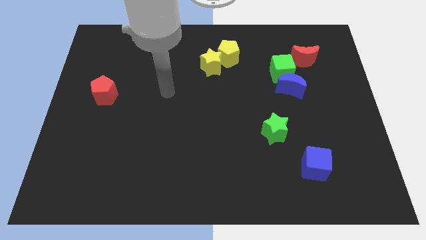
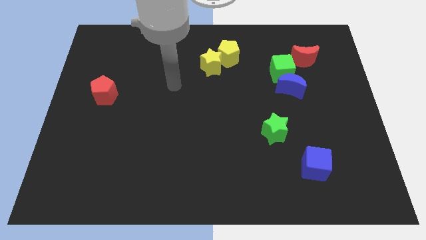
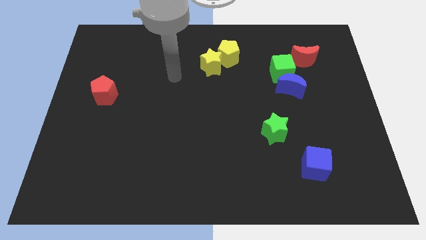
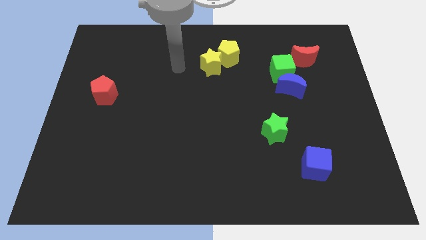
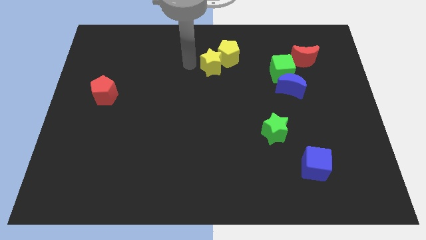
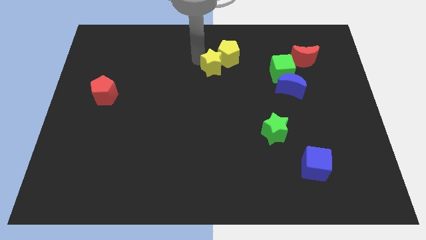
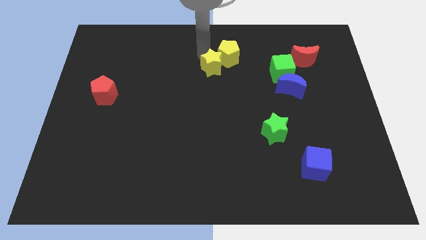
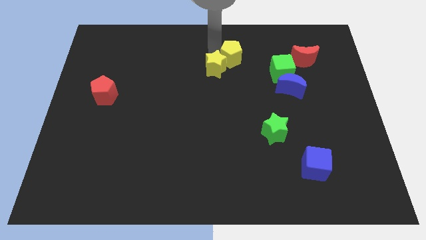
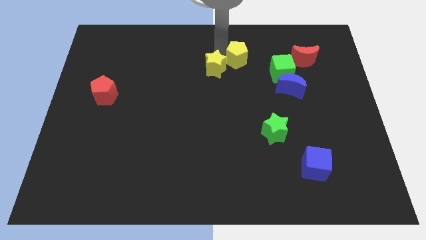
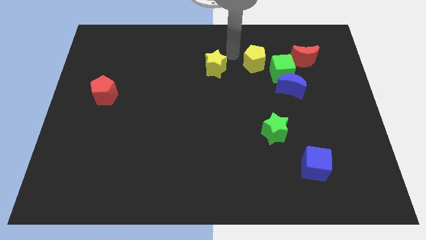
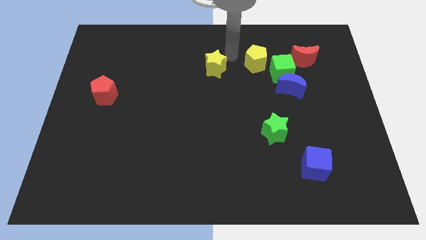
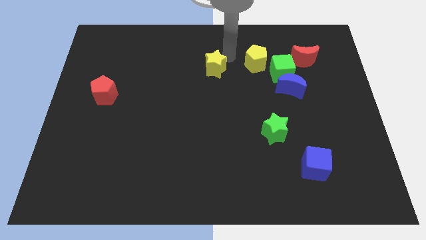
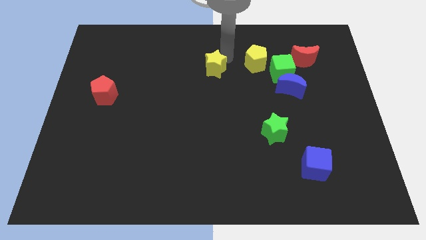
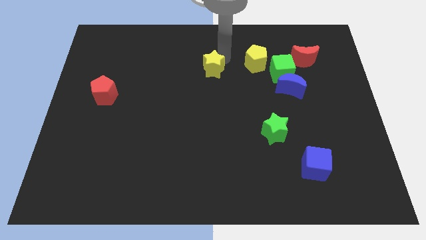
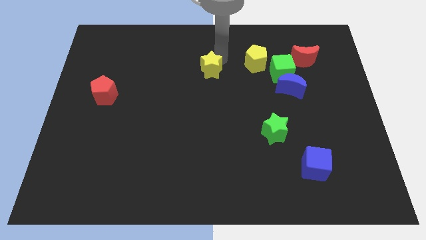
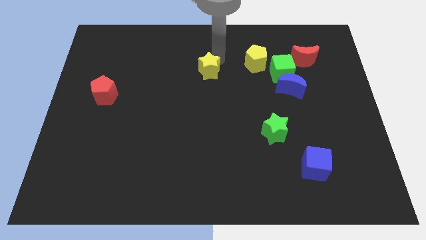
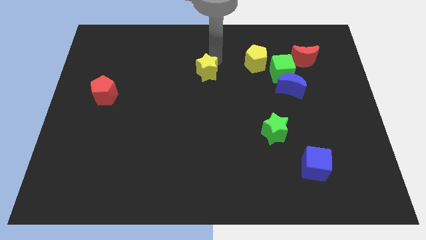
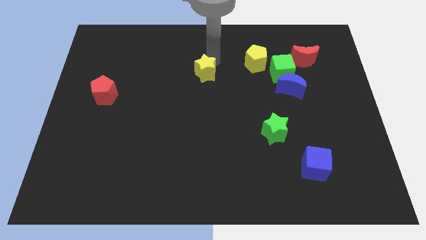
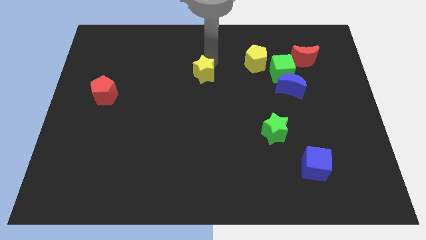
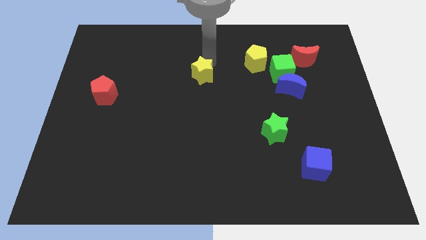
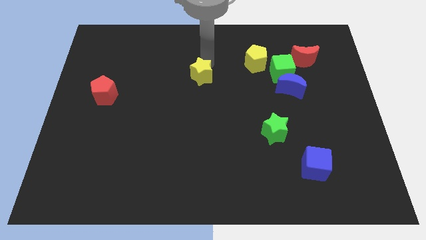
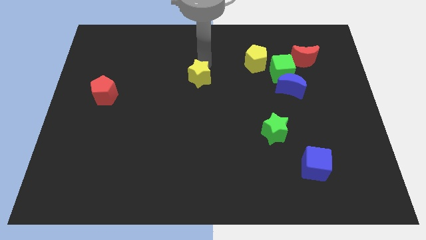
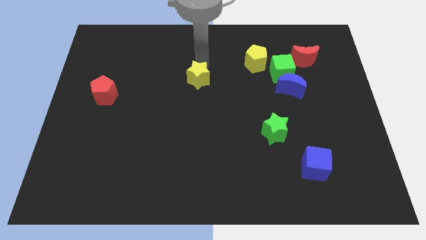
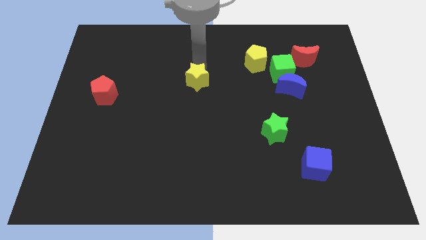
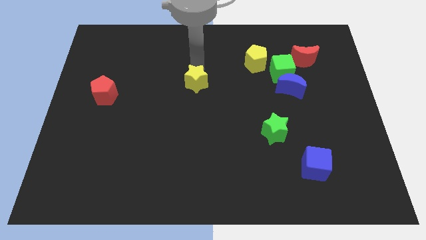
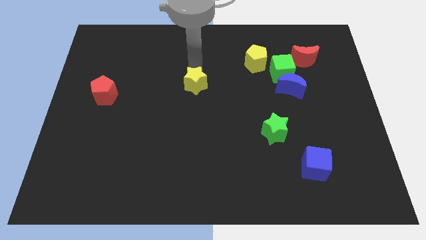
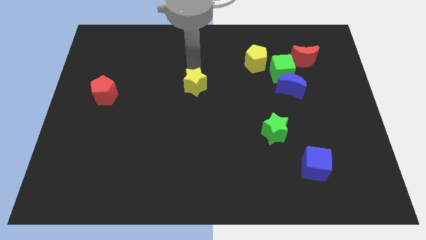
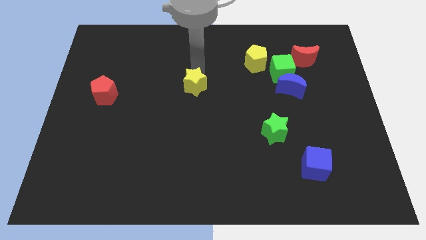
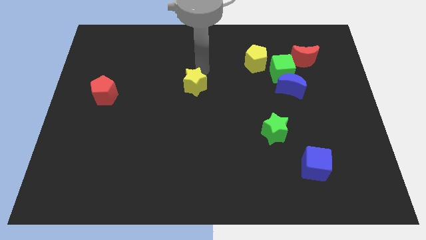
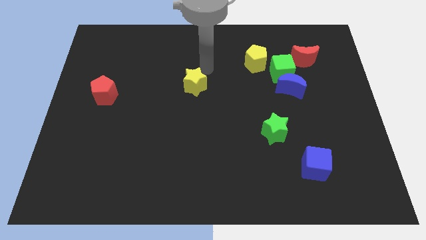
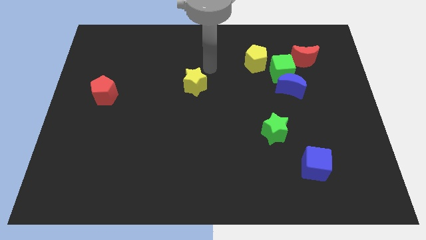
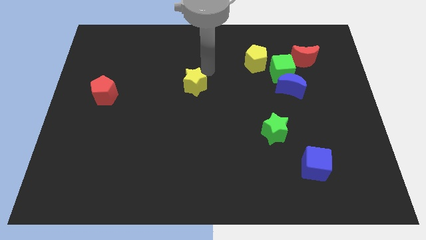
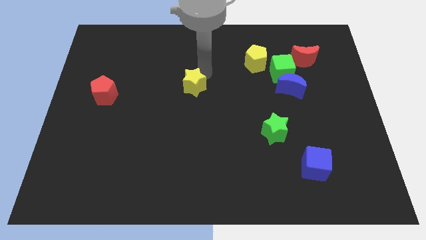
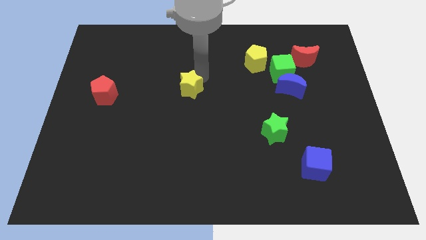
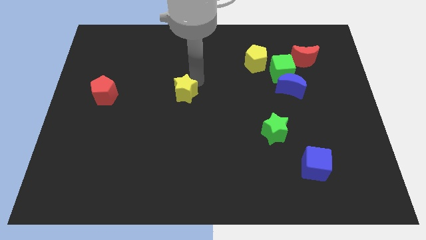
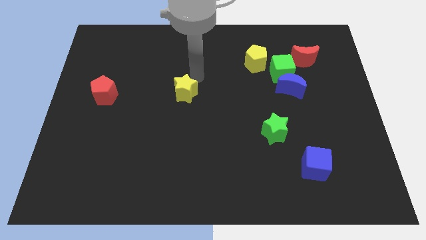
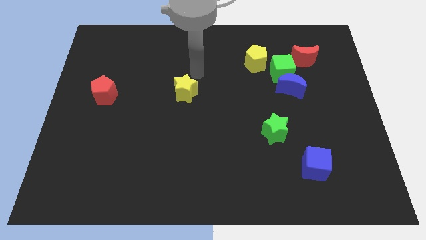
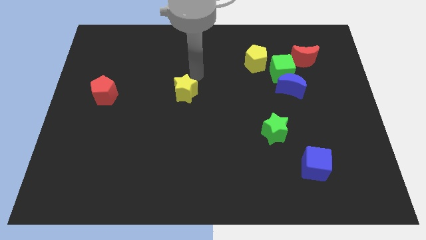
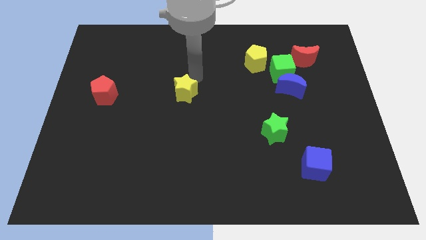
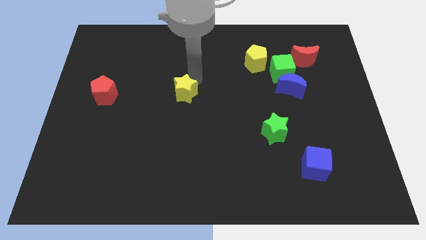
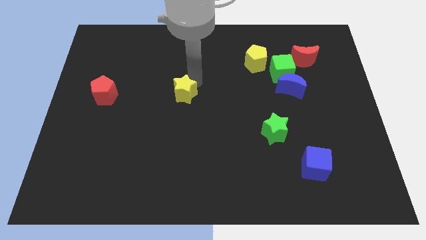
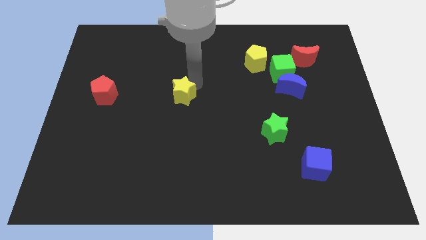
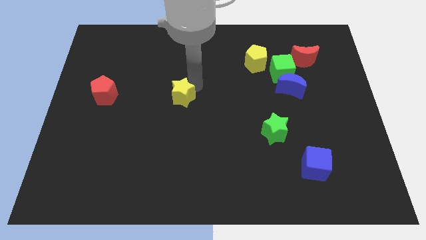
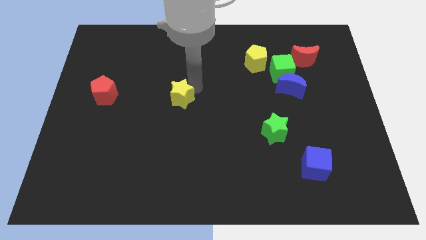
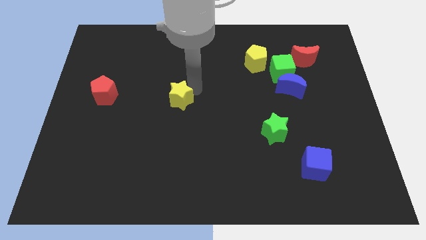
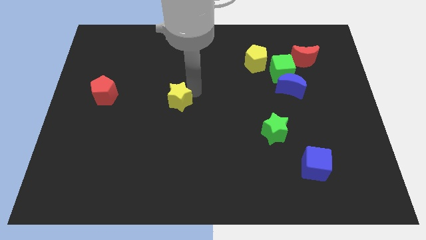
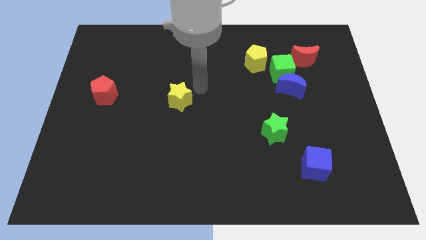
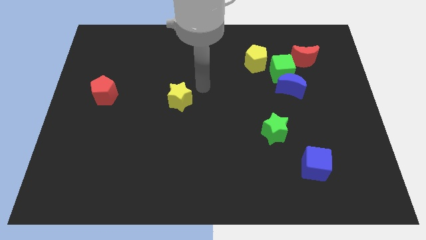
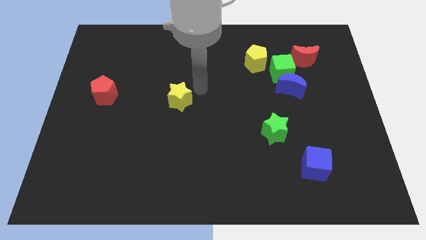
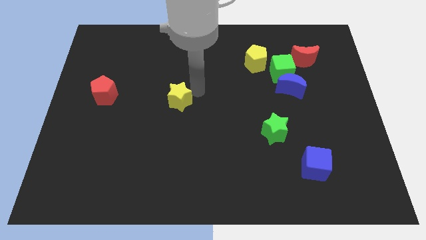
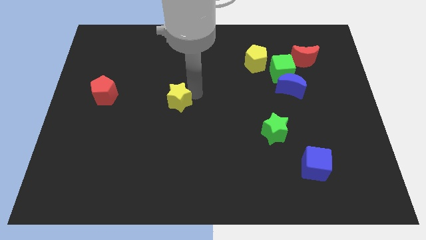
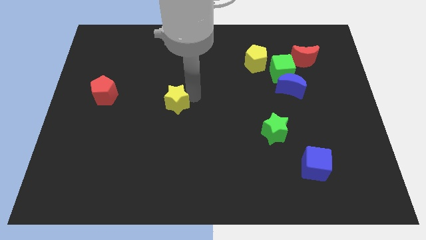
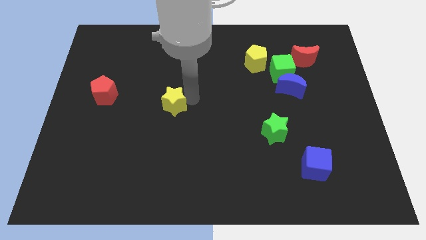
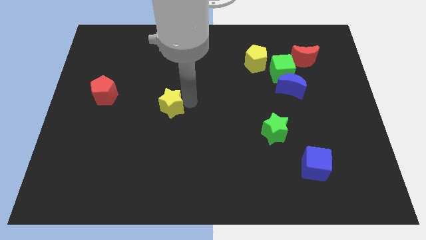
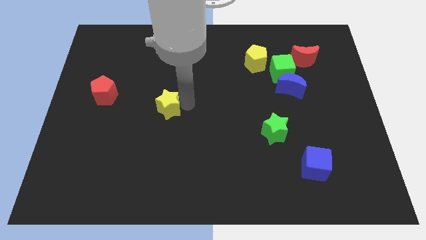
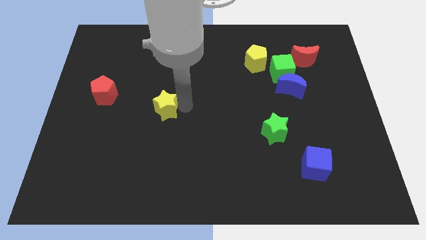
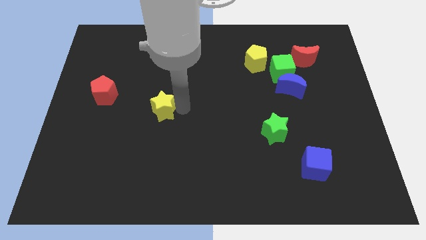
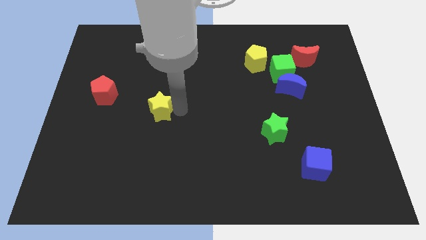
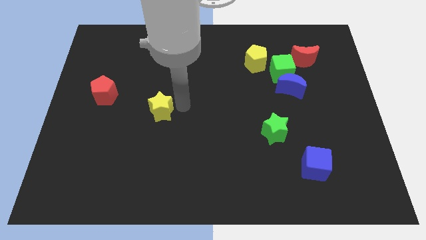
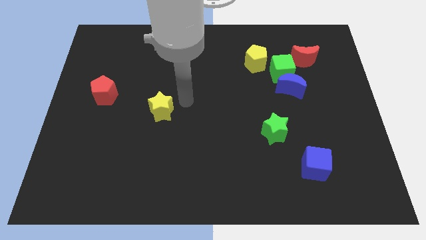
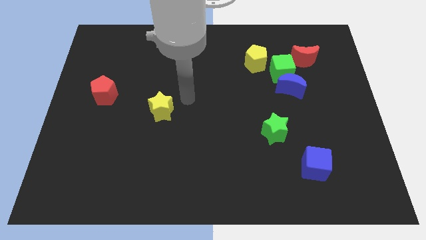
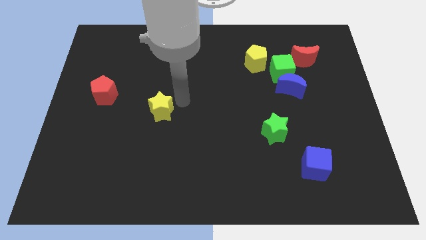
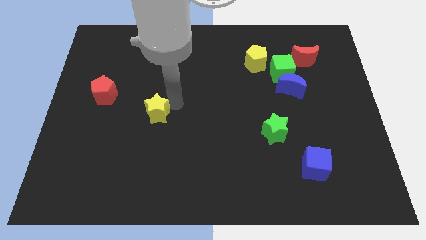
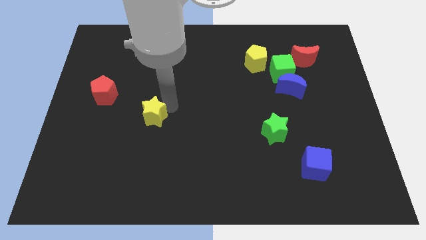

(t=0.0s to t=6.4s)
push the yellow star downwards and then left

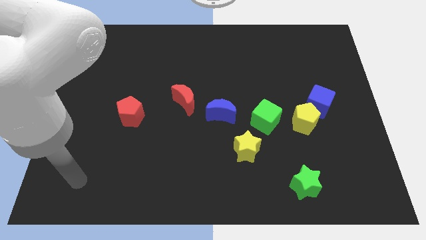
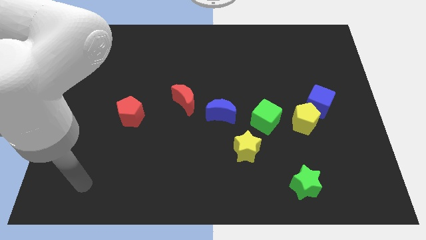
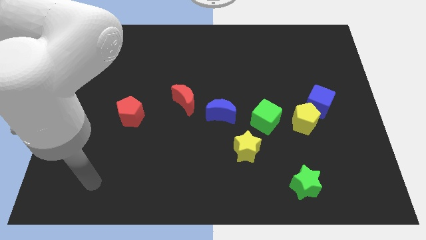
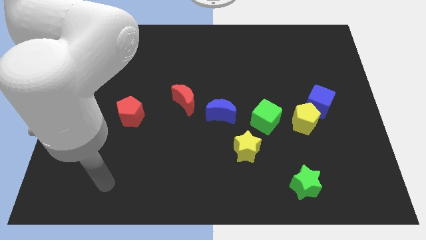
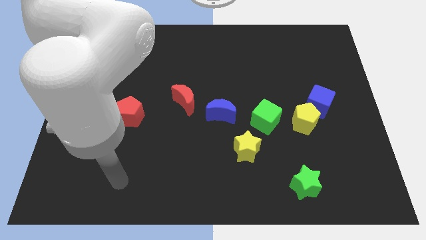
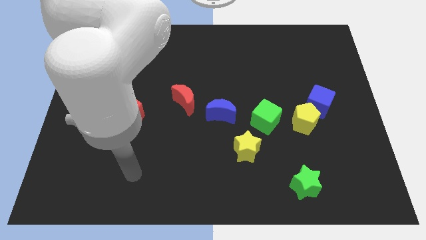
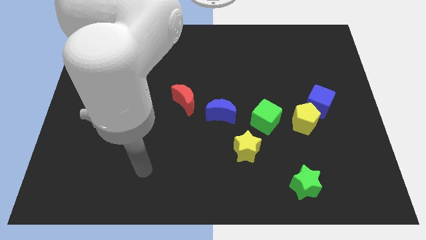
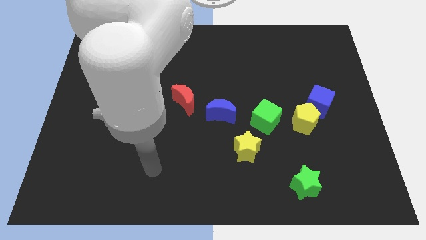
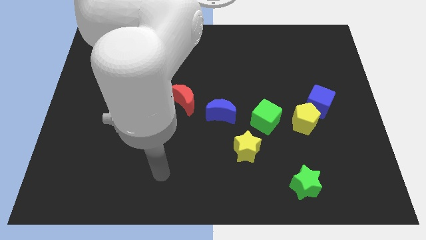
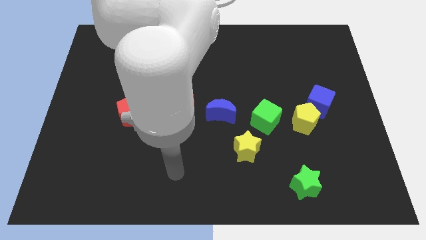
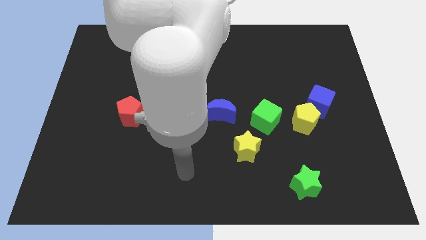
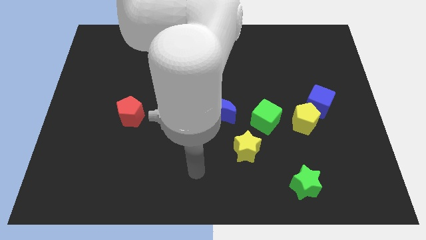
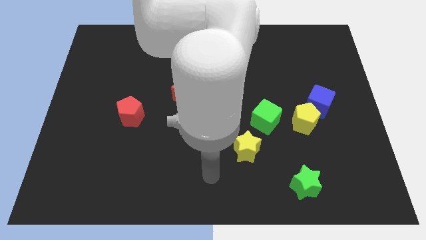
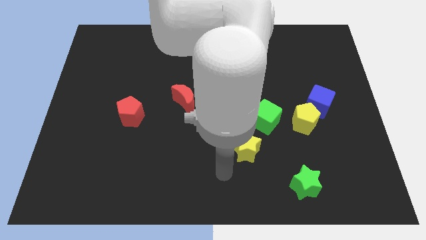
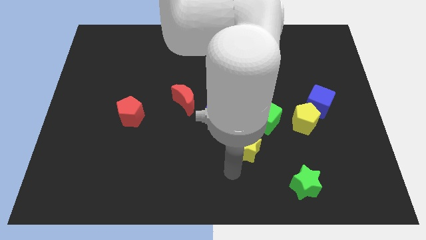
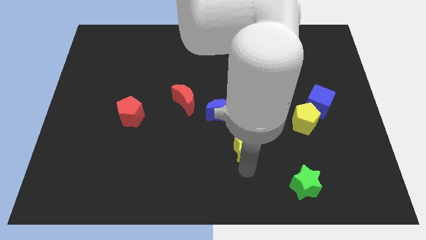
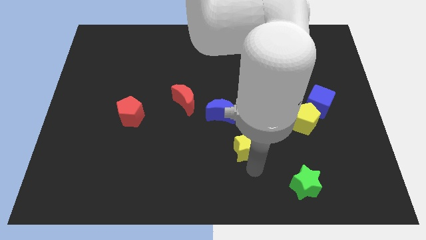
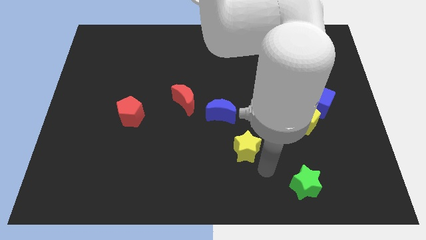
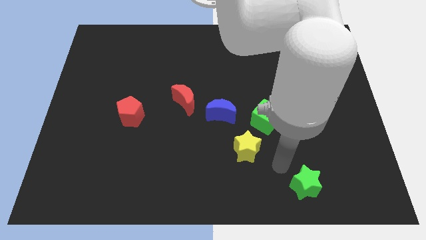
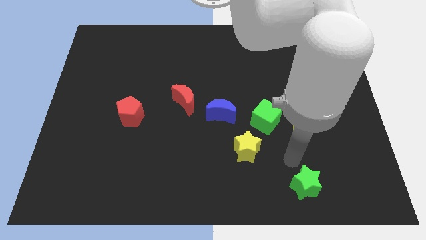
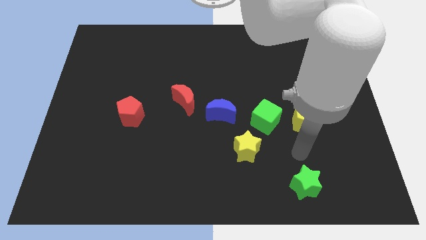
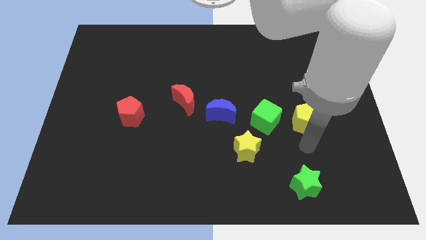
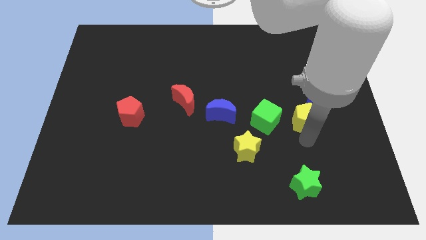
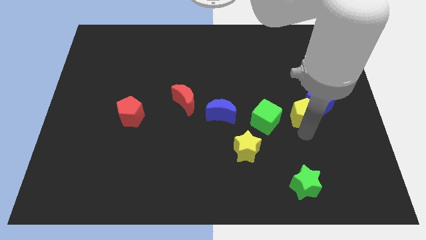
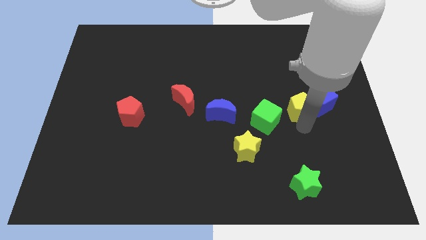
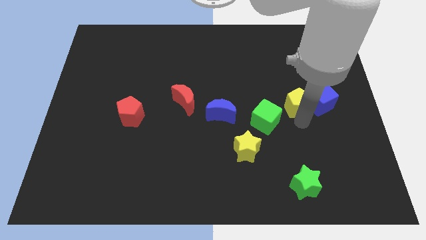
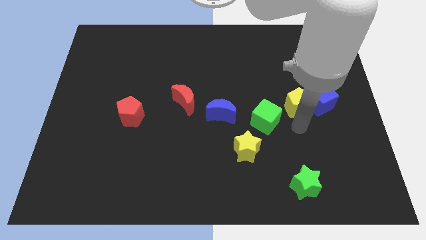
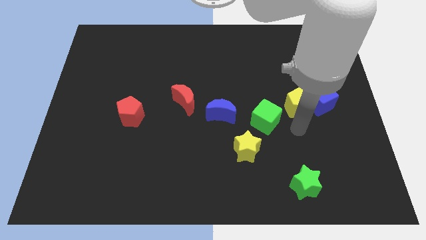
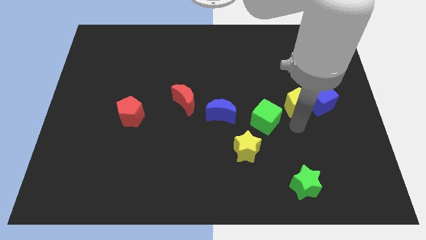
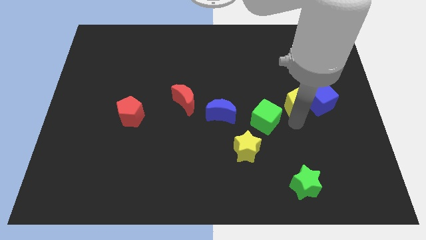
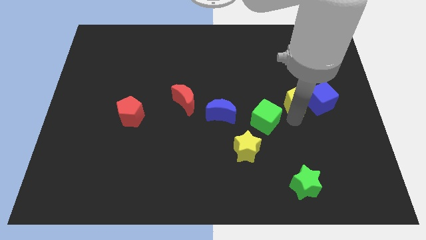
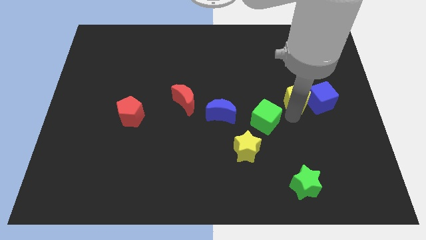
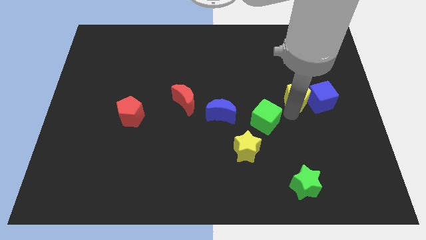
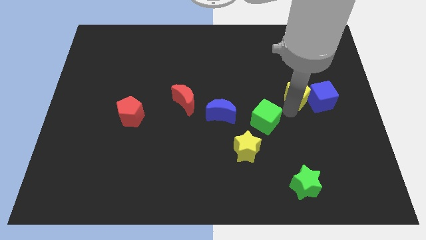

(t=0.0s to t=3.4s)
slightly slide the yellow pentagon up
